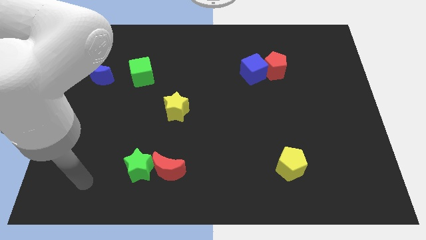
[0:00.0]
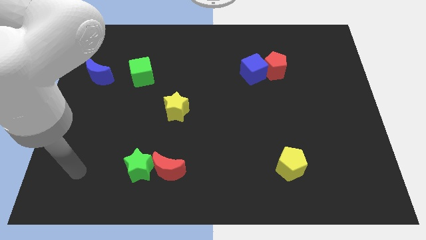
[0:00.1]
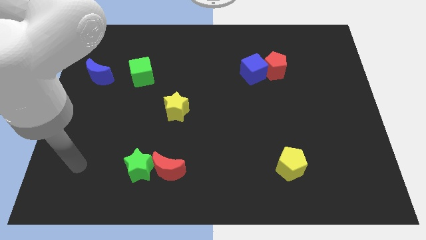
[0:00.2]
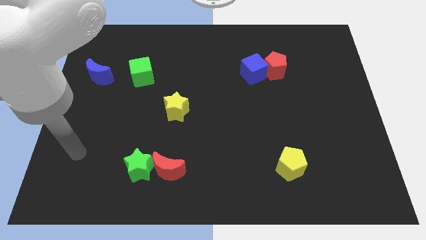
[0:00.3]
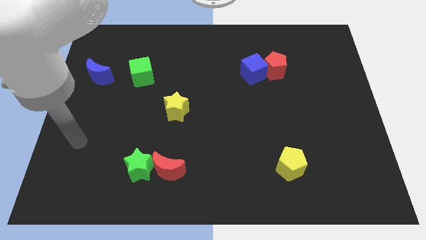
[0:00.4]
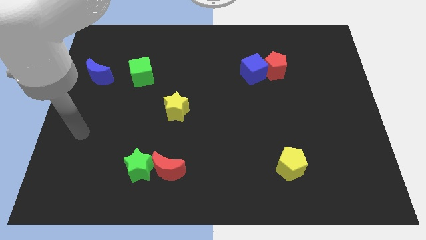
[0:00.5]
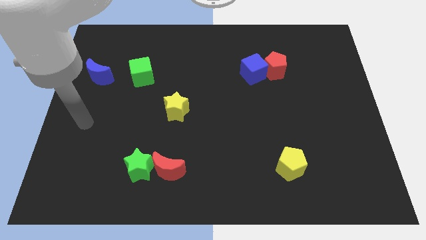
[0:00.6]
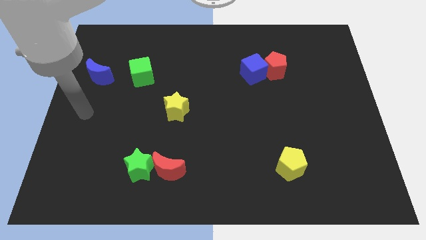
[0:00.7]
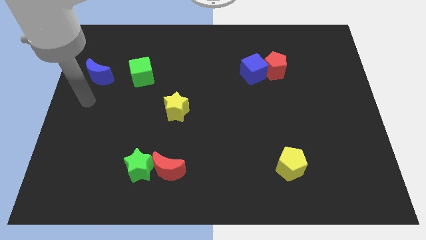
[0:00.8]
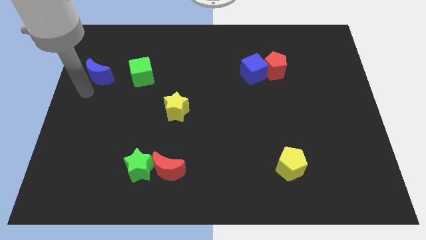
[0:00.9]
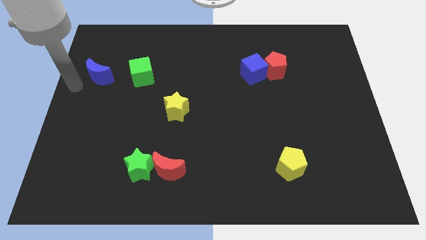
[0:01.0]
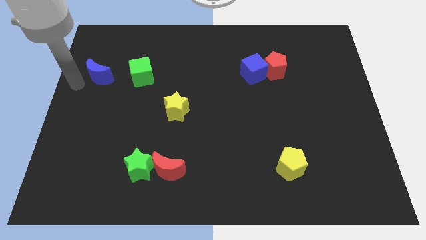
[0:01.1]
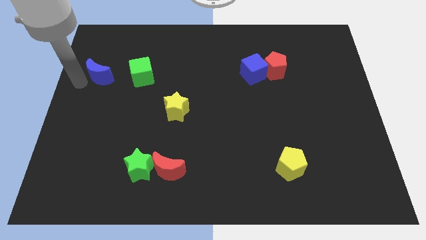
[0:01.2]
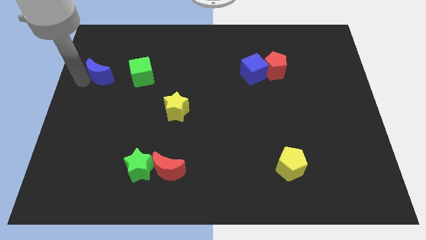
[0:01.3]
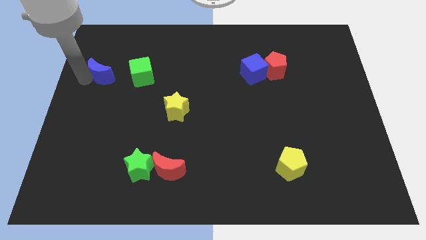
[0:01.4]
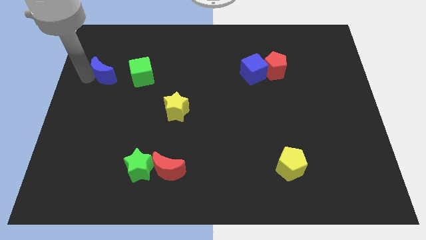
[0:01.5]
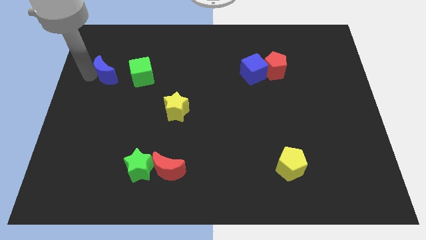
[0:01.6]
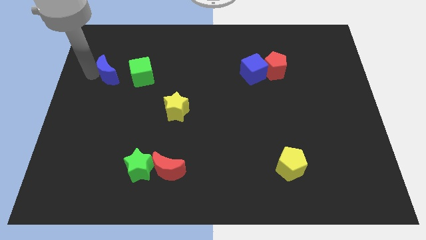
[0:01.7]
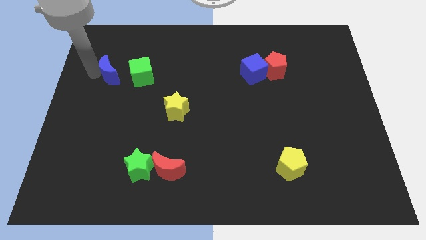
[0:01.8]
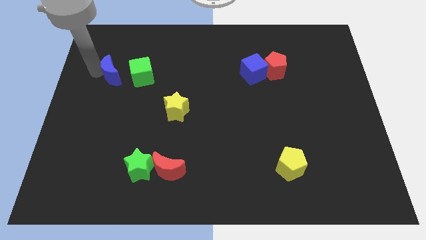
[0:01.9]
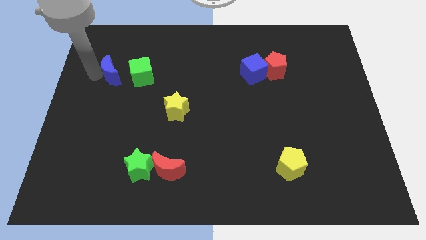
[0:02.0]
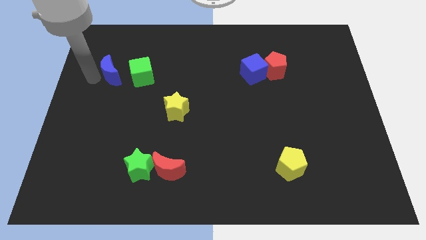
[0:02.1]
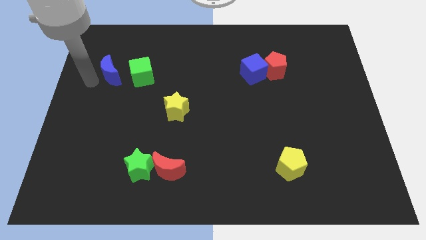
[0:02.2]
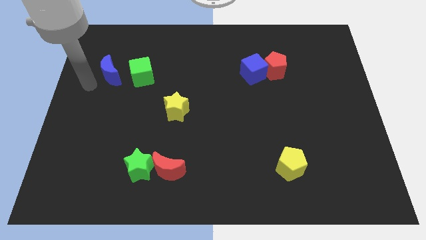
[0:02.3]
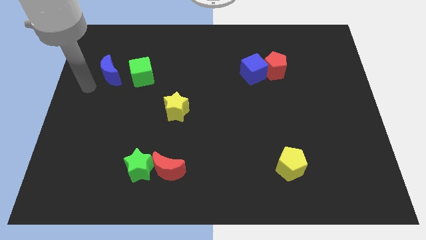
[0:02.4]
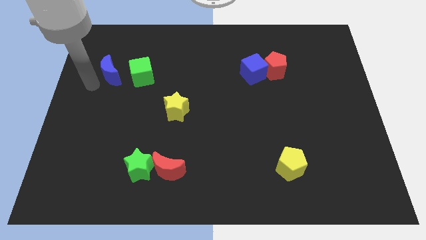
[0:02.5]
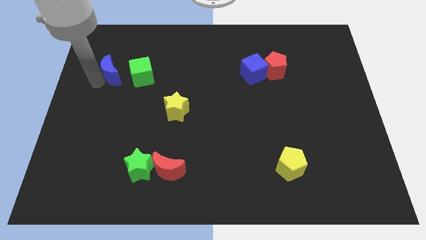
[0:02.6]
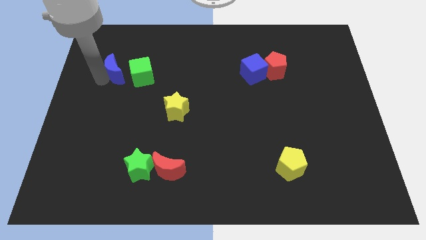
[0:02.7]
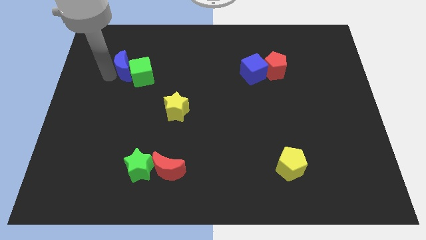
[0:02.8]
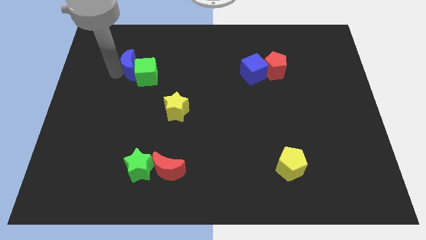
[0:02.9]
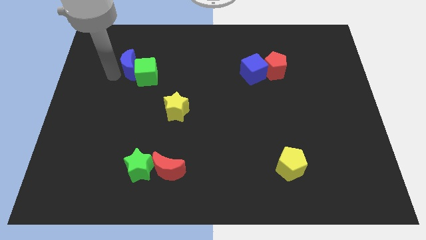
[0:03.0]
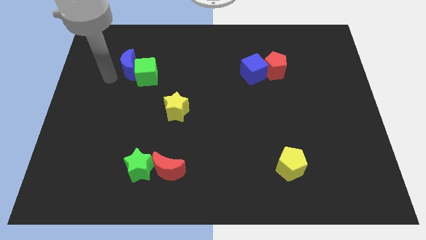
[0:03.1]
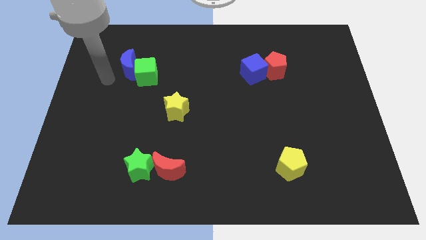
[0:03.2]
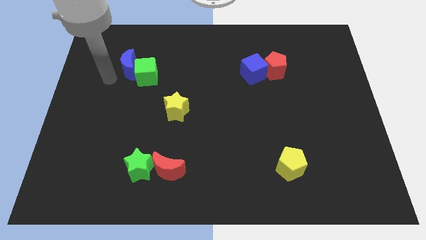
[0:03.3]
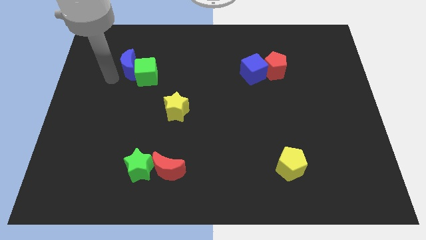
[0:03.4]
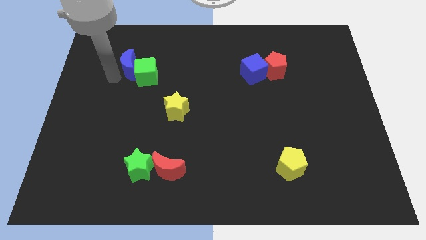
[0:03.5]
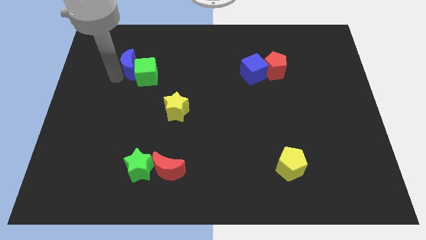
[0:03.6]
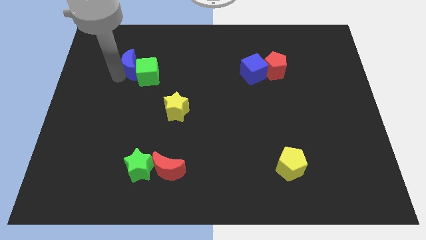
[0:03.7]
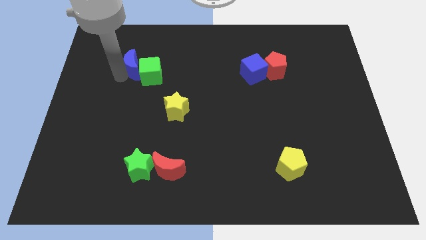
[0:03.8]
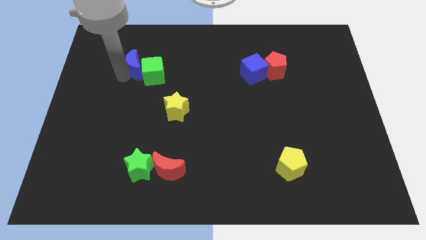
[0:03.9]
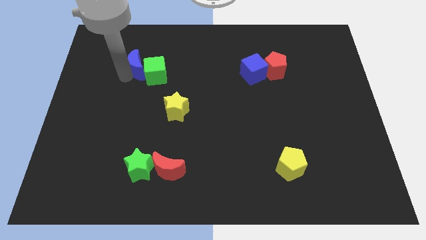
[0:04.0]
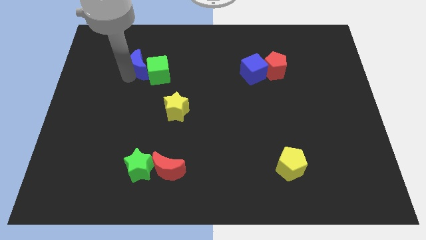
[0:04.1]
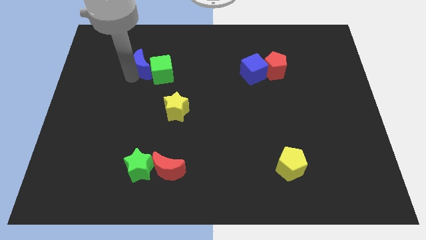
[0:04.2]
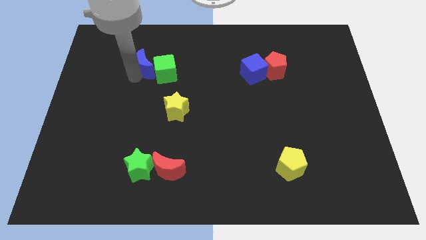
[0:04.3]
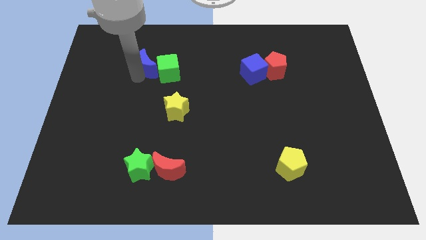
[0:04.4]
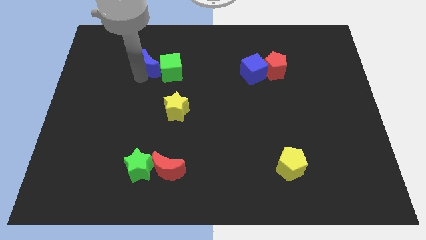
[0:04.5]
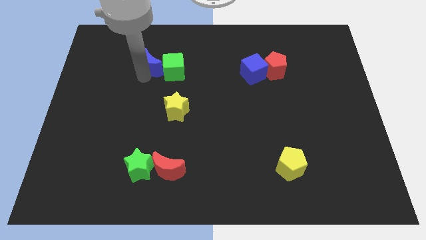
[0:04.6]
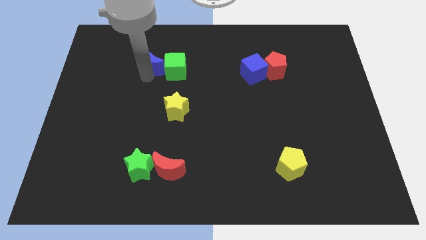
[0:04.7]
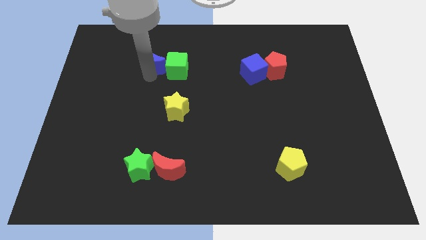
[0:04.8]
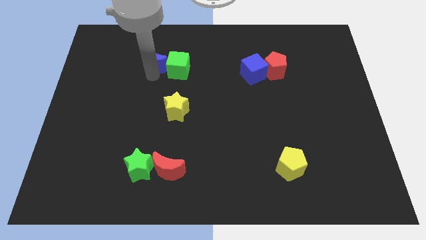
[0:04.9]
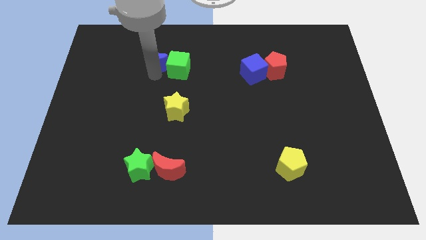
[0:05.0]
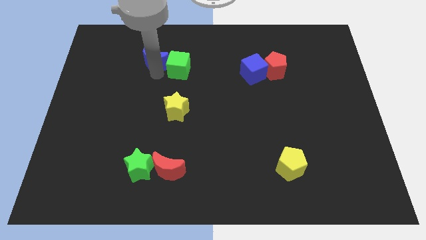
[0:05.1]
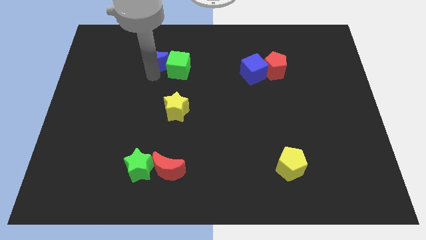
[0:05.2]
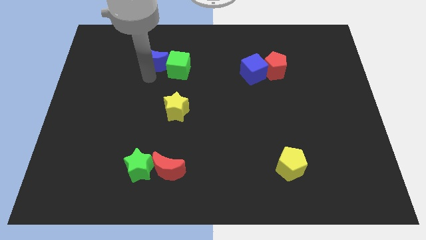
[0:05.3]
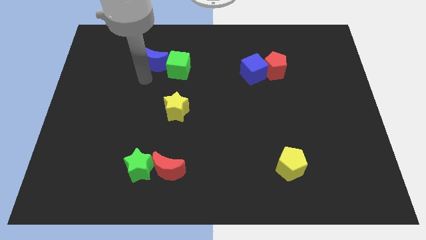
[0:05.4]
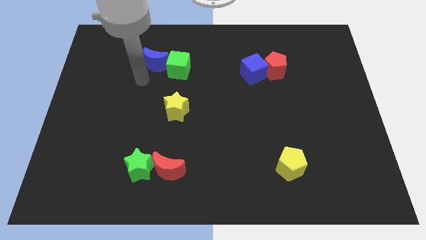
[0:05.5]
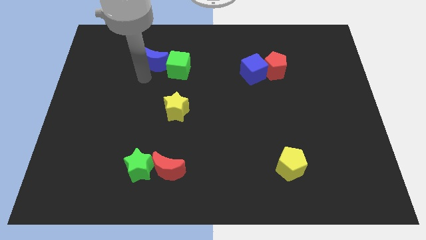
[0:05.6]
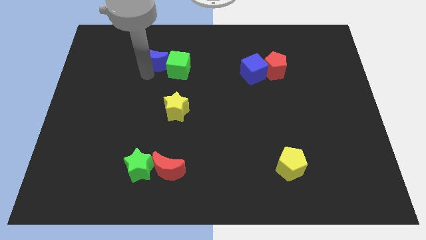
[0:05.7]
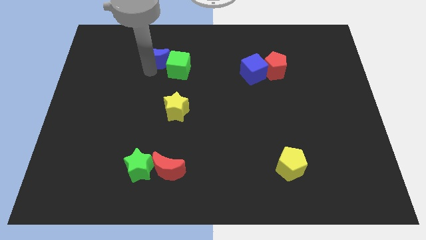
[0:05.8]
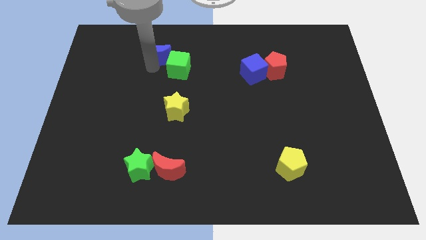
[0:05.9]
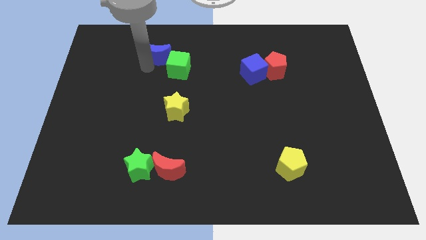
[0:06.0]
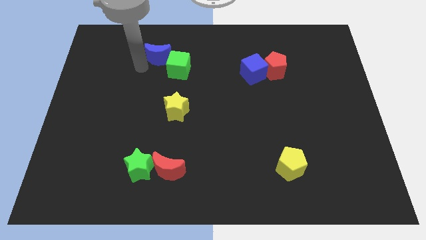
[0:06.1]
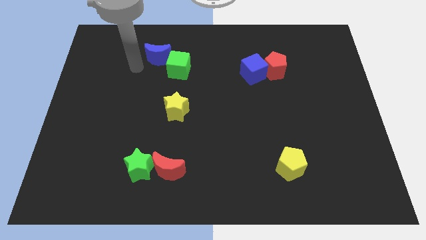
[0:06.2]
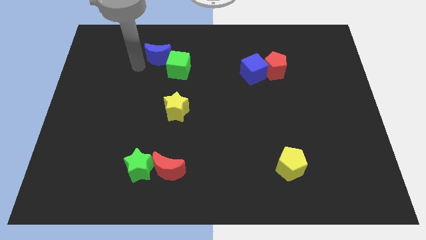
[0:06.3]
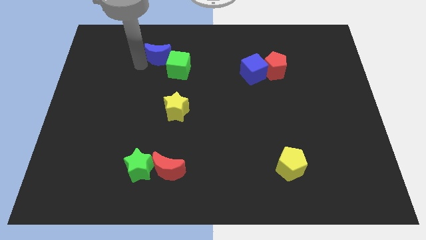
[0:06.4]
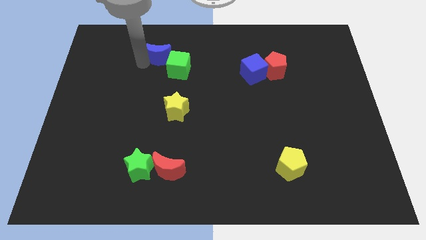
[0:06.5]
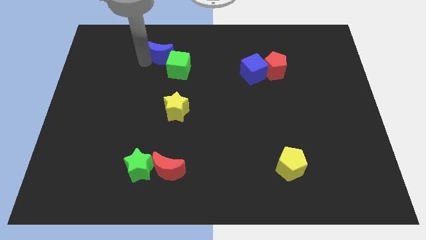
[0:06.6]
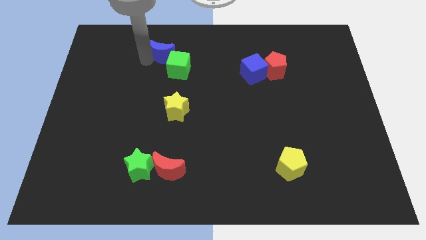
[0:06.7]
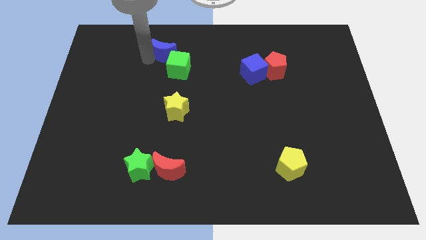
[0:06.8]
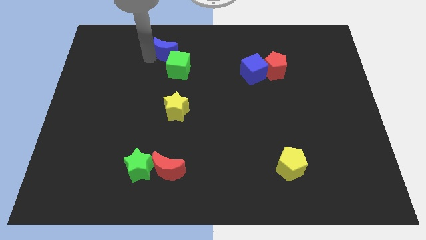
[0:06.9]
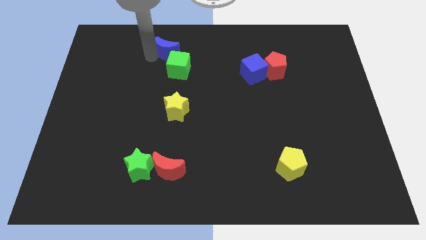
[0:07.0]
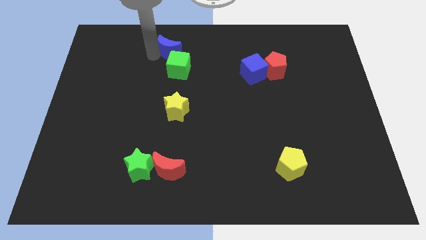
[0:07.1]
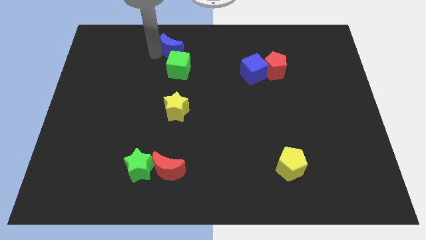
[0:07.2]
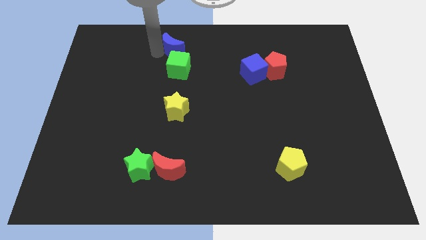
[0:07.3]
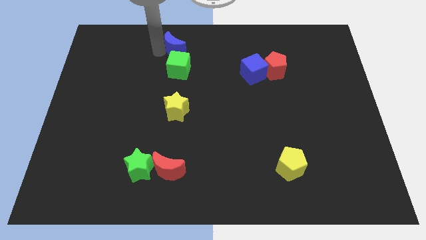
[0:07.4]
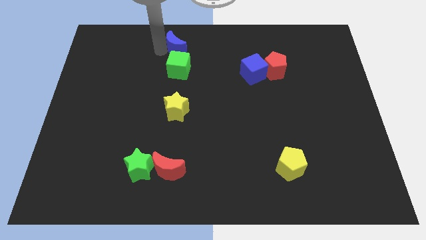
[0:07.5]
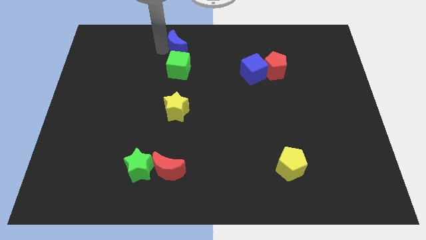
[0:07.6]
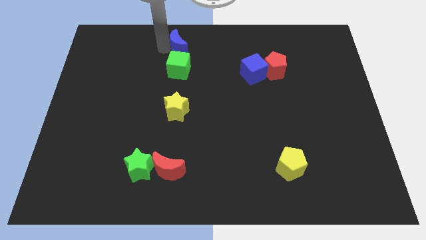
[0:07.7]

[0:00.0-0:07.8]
push the blue moon to the top

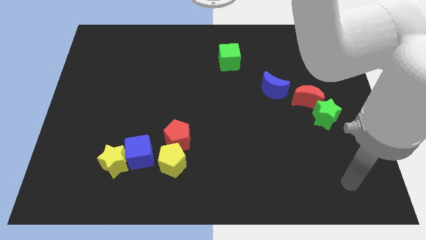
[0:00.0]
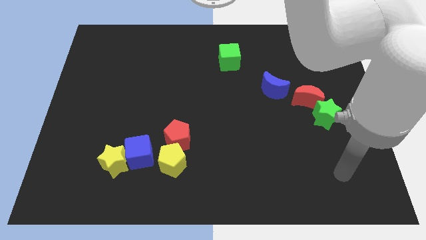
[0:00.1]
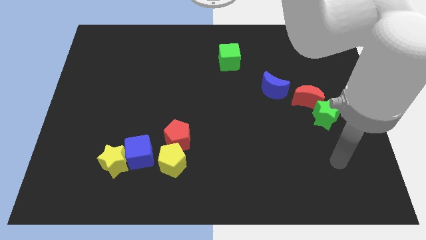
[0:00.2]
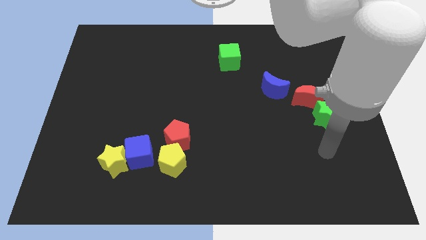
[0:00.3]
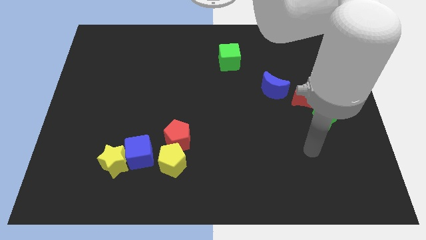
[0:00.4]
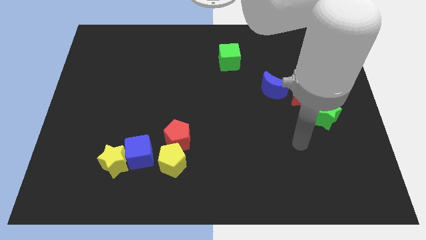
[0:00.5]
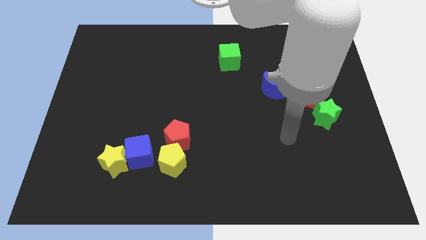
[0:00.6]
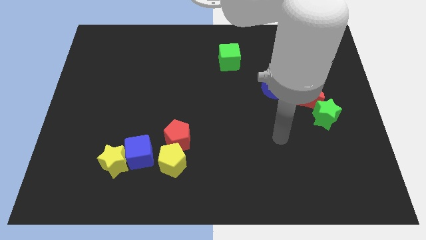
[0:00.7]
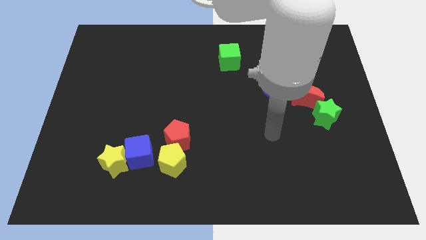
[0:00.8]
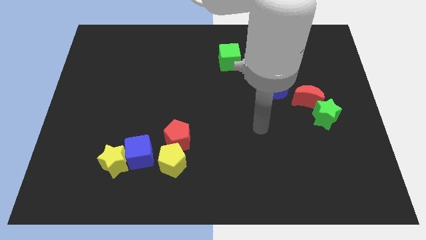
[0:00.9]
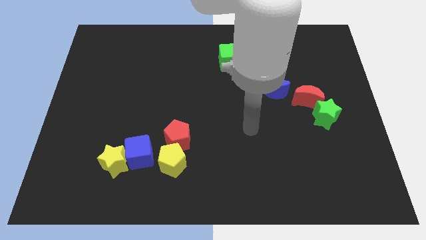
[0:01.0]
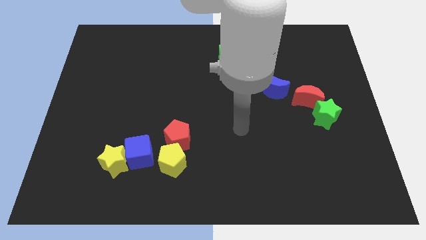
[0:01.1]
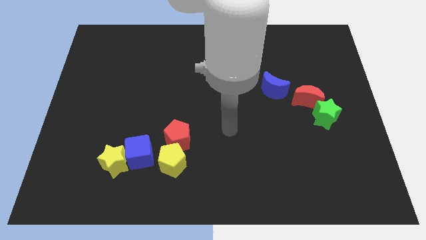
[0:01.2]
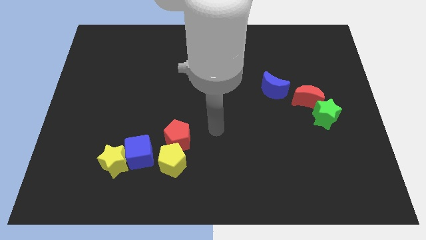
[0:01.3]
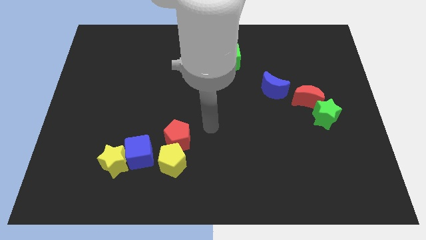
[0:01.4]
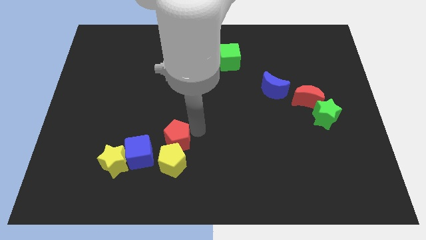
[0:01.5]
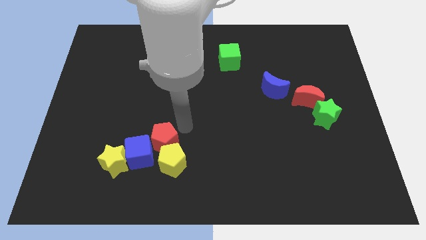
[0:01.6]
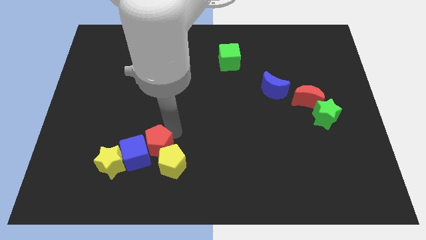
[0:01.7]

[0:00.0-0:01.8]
slide the yellow pentagon to the bottom
